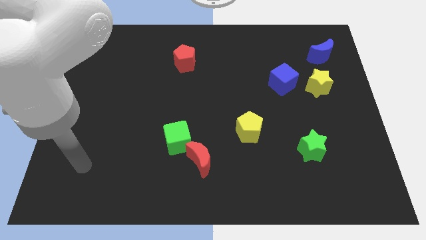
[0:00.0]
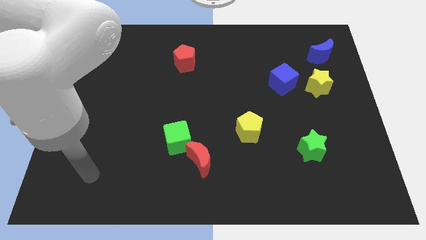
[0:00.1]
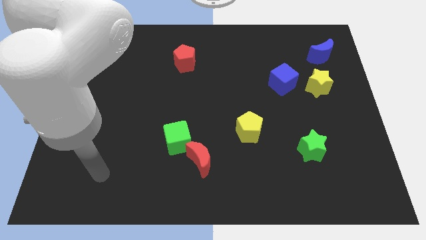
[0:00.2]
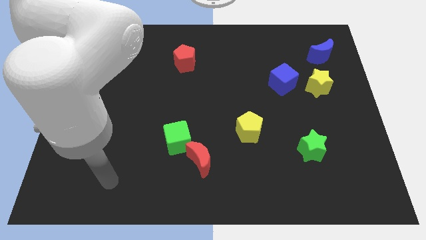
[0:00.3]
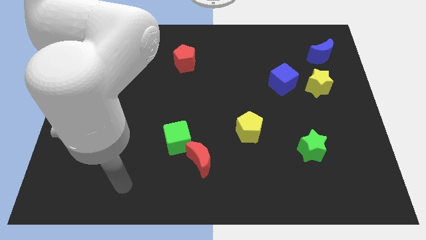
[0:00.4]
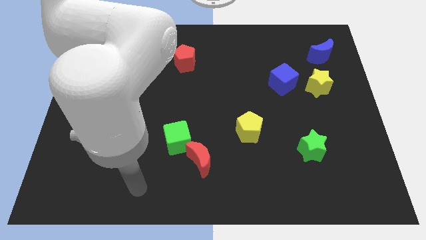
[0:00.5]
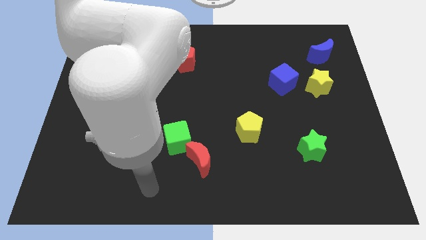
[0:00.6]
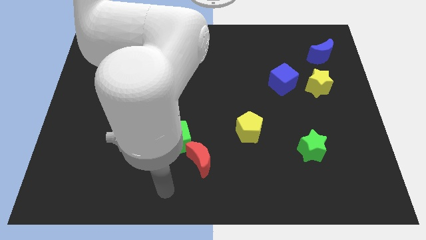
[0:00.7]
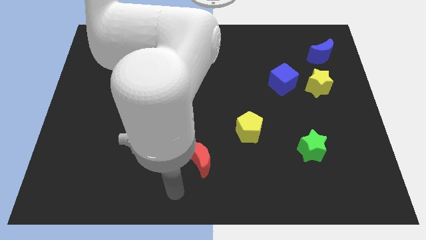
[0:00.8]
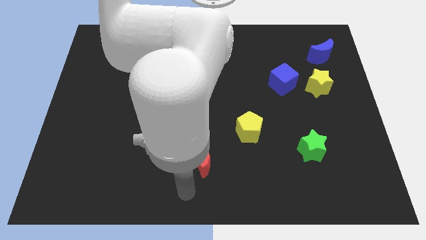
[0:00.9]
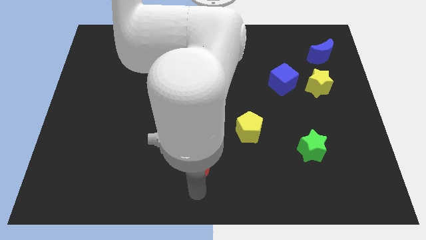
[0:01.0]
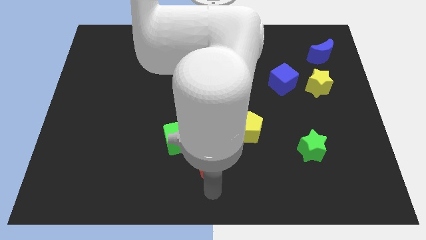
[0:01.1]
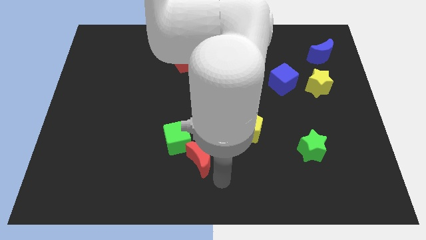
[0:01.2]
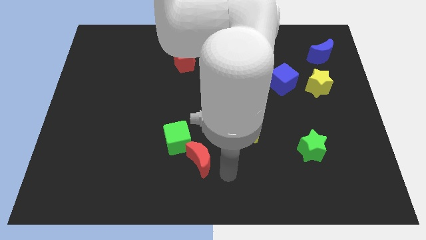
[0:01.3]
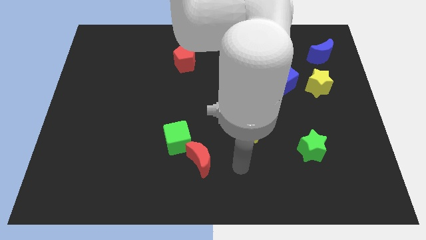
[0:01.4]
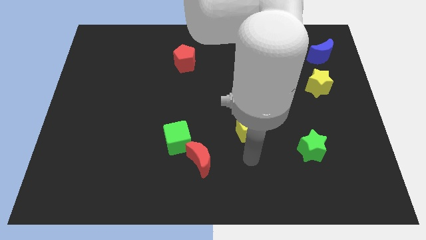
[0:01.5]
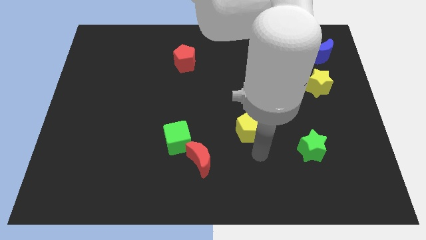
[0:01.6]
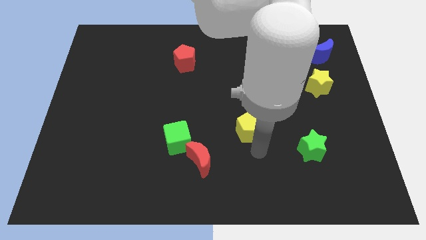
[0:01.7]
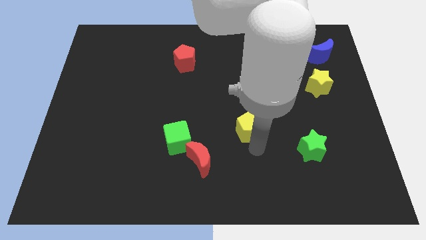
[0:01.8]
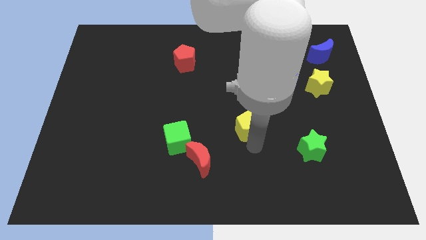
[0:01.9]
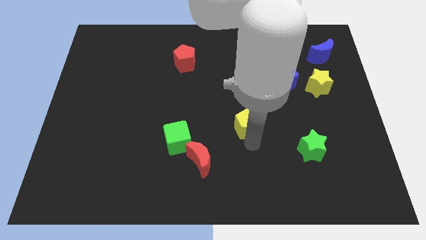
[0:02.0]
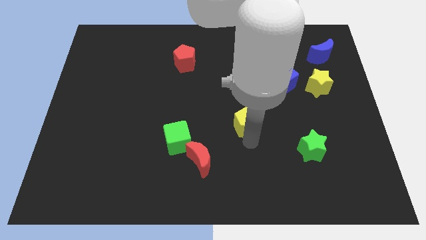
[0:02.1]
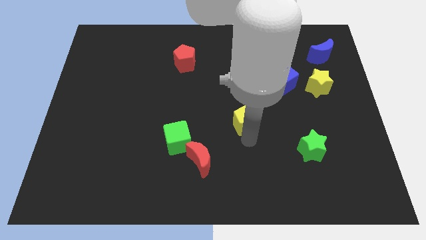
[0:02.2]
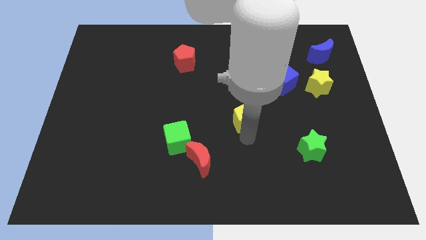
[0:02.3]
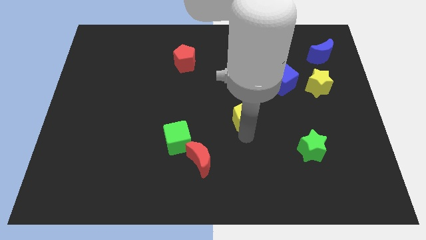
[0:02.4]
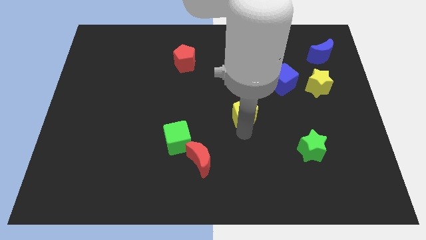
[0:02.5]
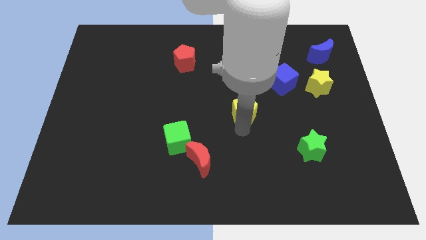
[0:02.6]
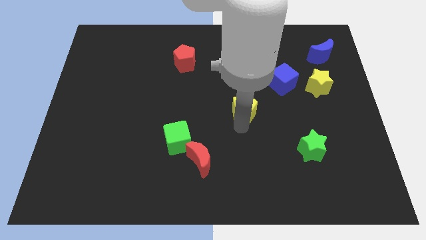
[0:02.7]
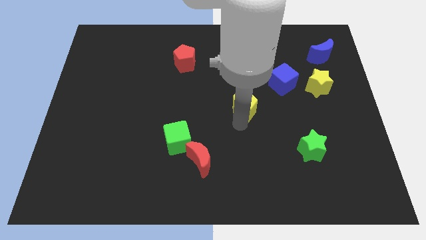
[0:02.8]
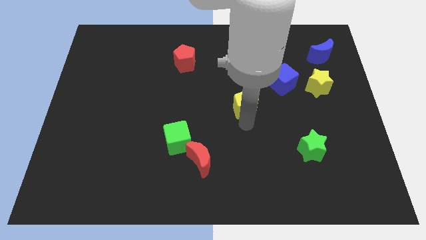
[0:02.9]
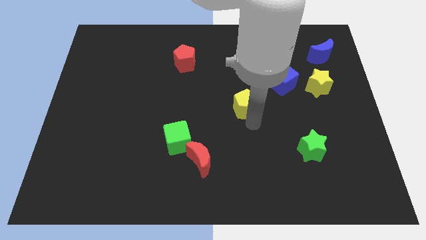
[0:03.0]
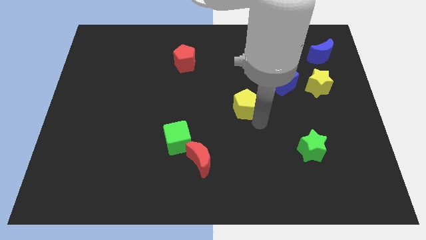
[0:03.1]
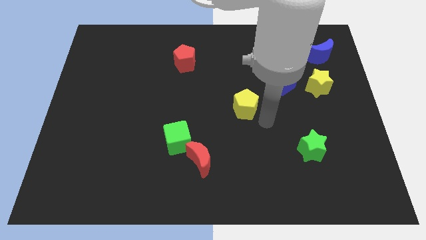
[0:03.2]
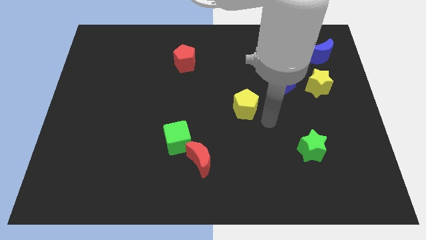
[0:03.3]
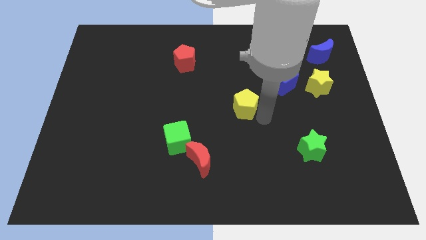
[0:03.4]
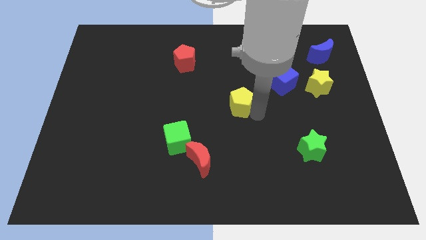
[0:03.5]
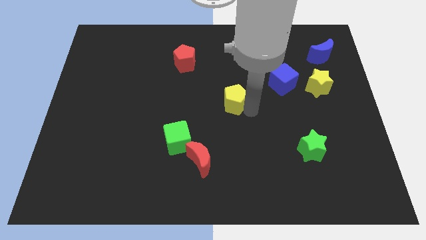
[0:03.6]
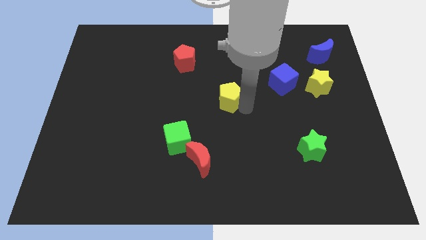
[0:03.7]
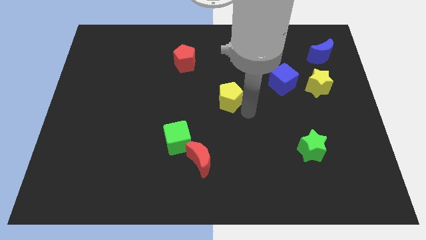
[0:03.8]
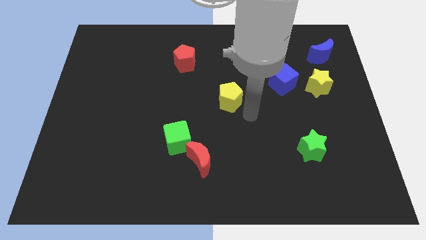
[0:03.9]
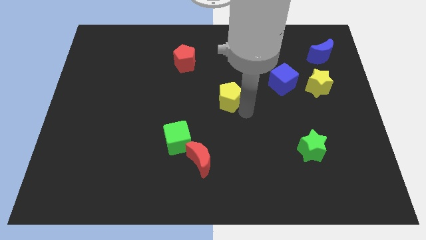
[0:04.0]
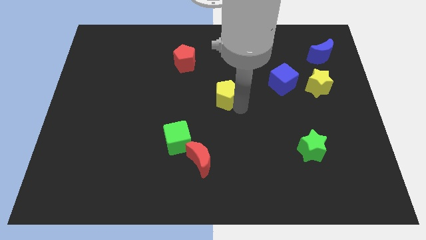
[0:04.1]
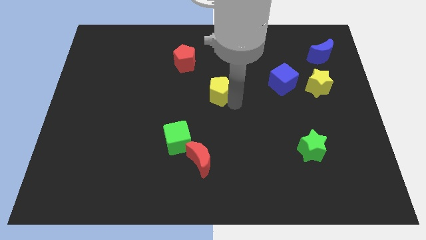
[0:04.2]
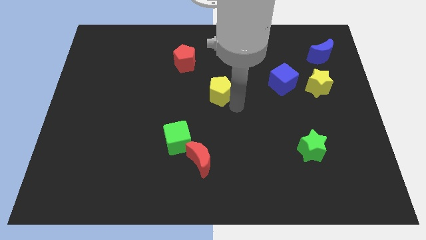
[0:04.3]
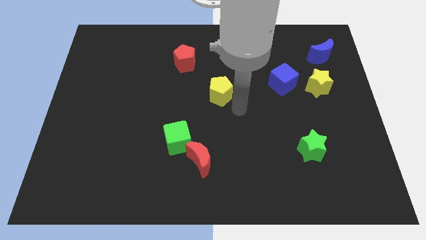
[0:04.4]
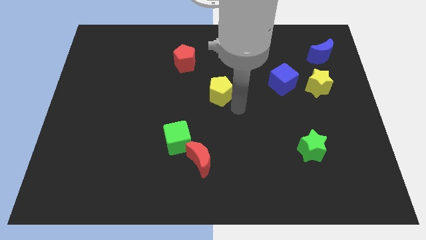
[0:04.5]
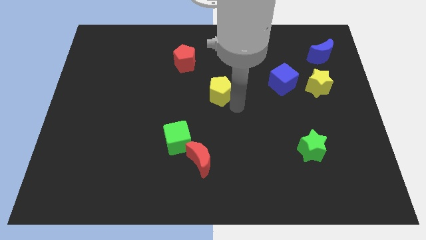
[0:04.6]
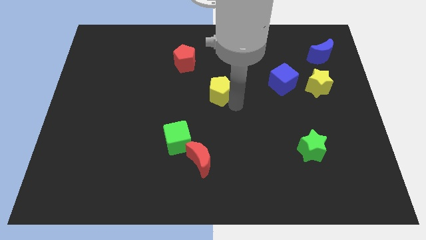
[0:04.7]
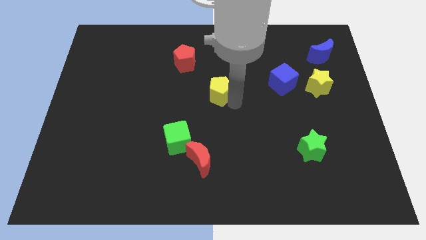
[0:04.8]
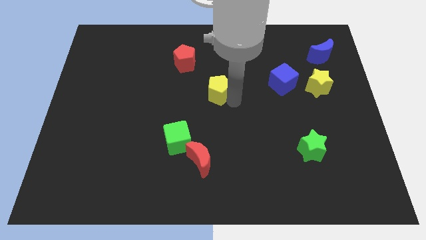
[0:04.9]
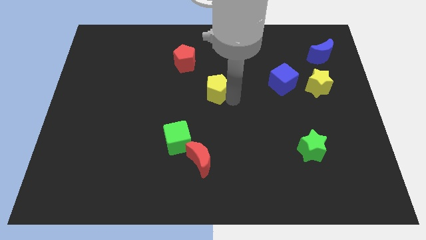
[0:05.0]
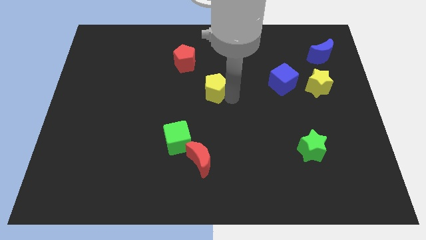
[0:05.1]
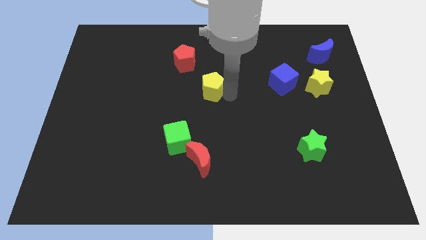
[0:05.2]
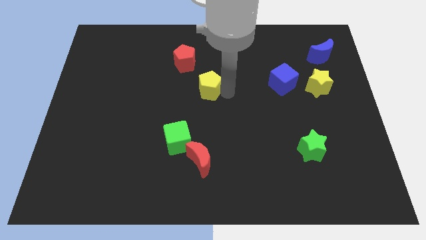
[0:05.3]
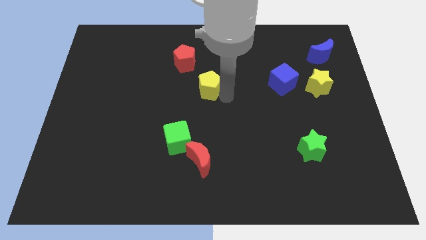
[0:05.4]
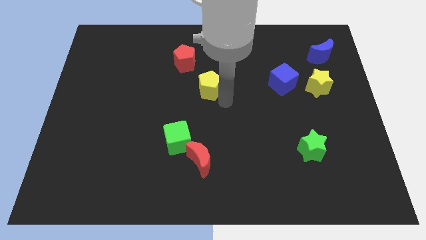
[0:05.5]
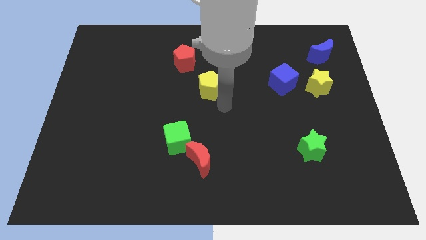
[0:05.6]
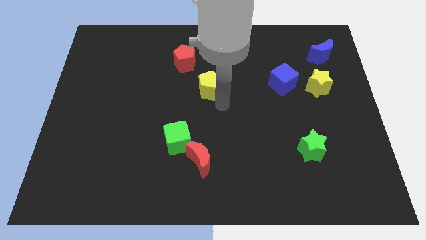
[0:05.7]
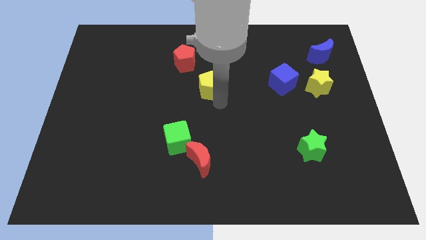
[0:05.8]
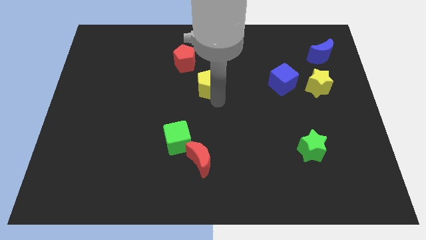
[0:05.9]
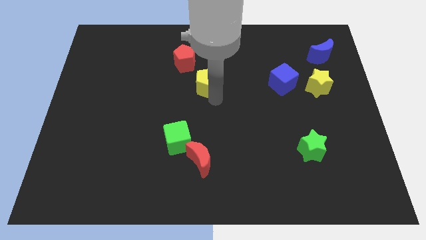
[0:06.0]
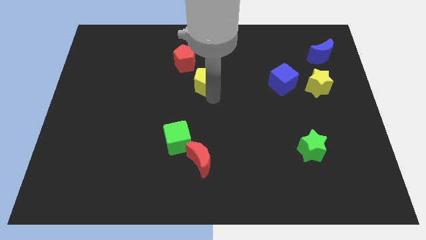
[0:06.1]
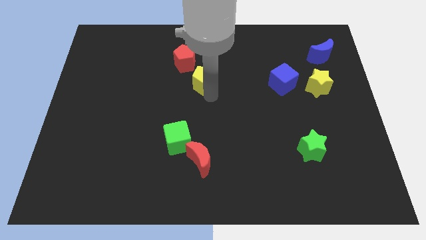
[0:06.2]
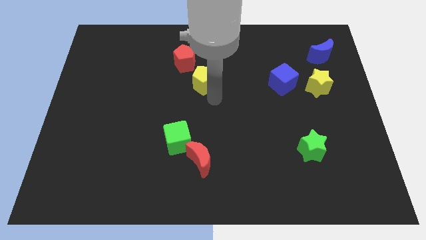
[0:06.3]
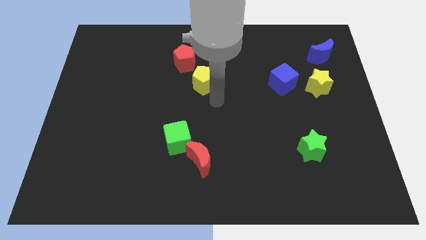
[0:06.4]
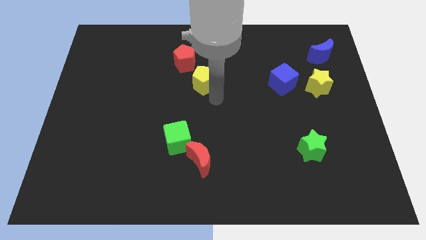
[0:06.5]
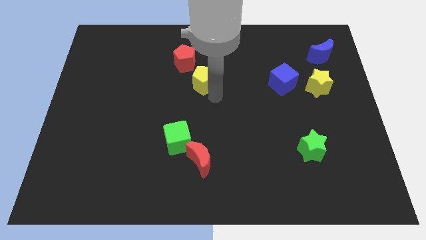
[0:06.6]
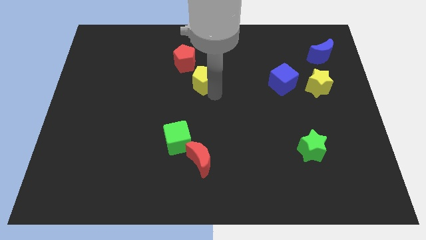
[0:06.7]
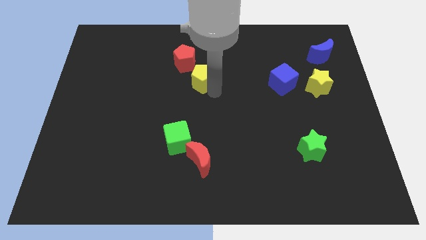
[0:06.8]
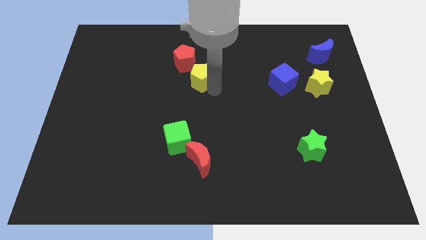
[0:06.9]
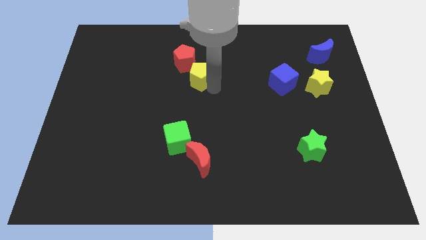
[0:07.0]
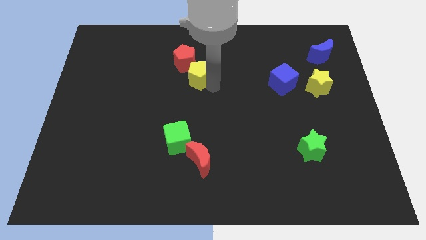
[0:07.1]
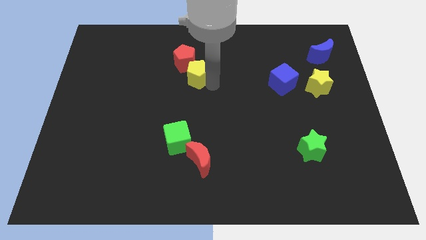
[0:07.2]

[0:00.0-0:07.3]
move the yellow pentagon close to the red pentagon

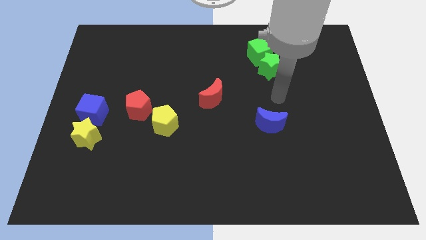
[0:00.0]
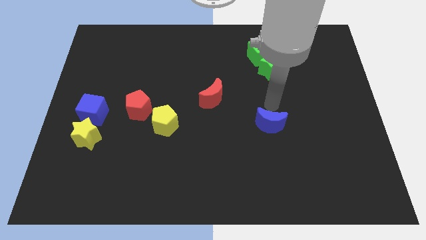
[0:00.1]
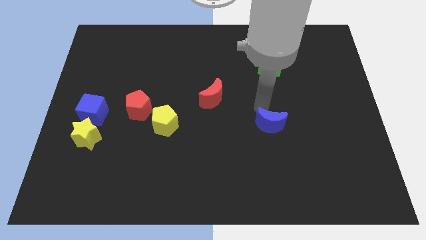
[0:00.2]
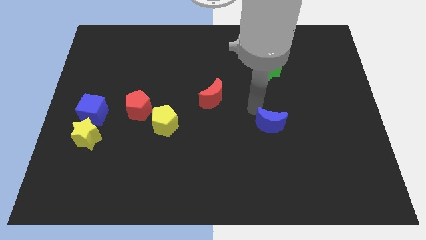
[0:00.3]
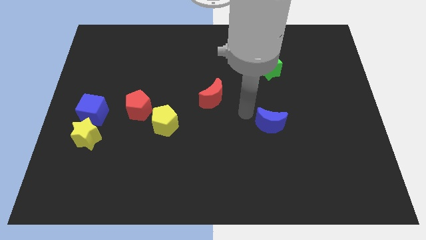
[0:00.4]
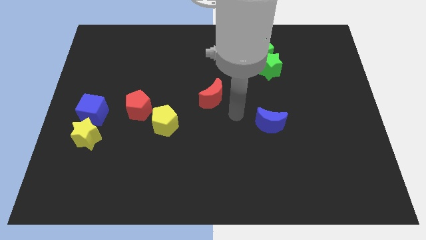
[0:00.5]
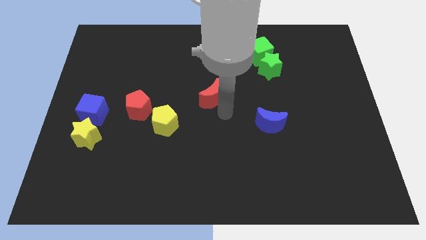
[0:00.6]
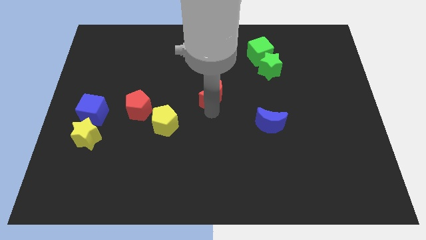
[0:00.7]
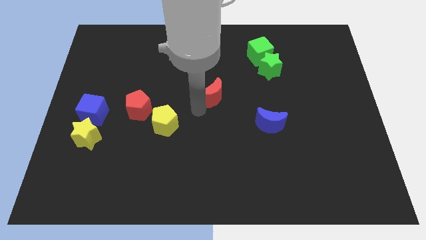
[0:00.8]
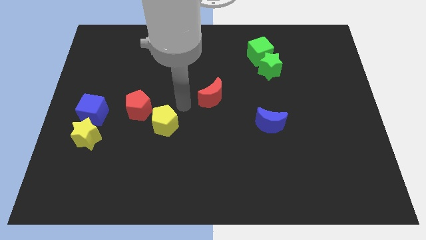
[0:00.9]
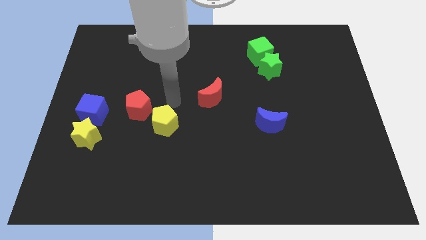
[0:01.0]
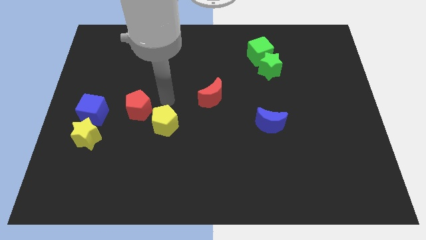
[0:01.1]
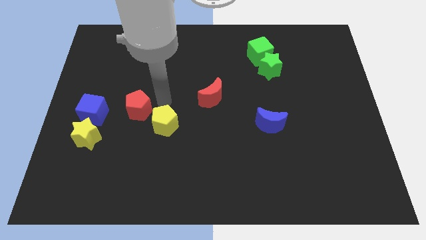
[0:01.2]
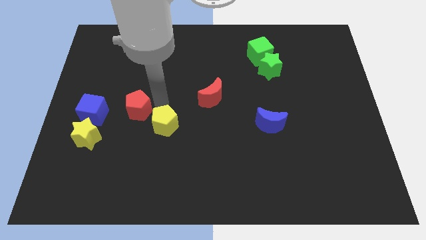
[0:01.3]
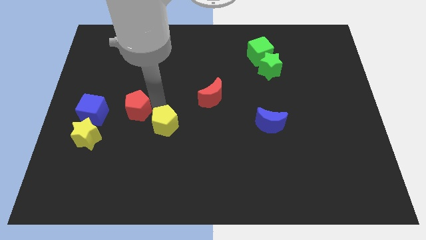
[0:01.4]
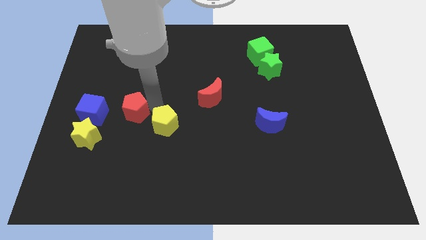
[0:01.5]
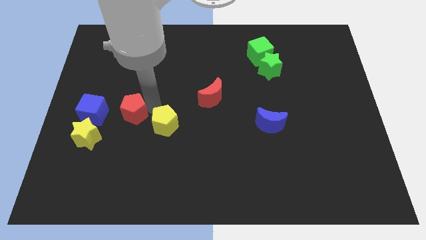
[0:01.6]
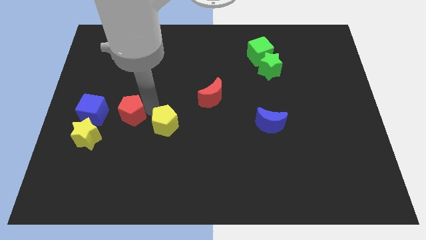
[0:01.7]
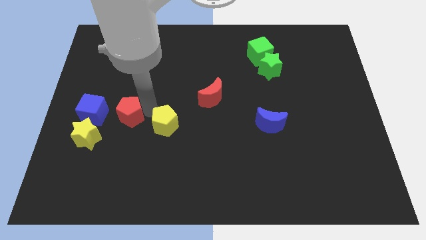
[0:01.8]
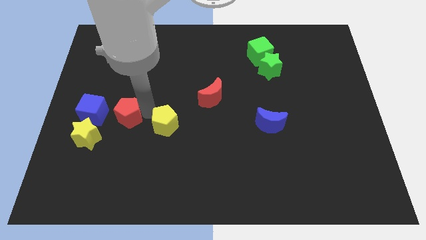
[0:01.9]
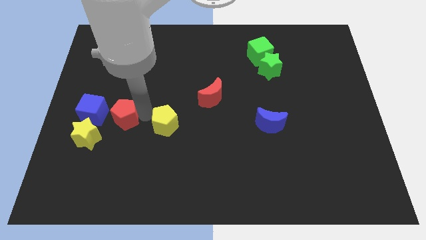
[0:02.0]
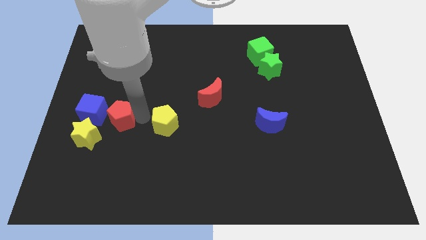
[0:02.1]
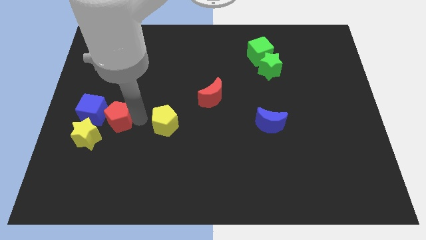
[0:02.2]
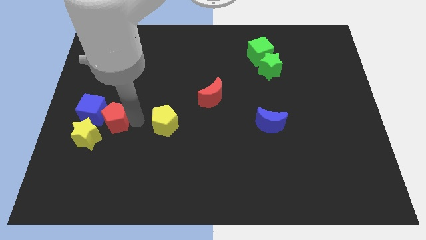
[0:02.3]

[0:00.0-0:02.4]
slide the red pentagon towards the blue cube
